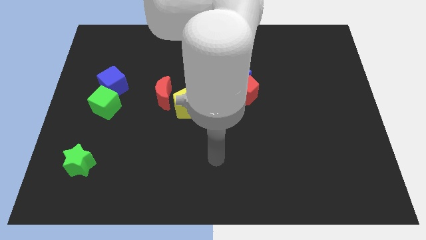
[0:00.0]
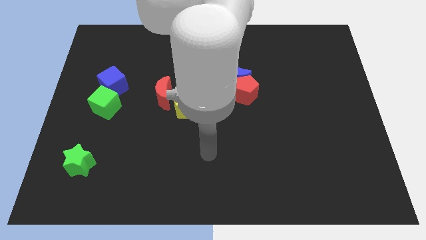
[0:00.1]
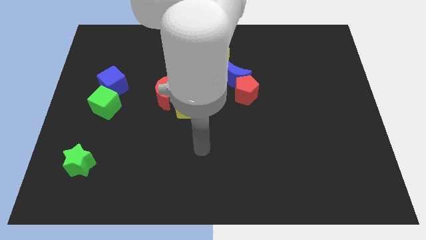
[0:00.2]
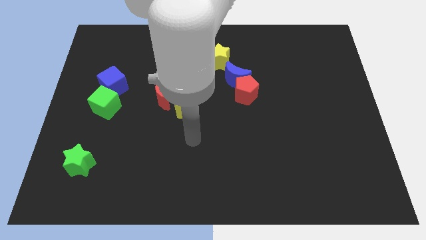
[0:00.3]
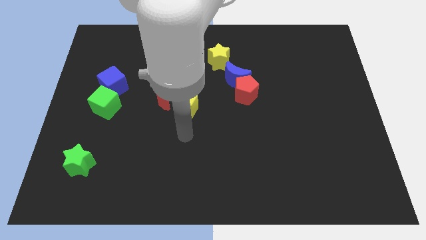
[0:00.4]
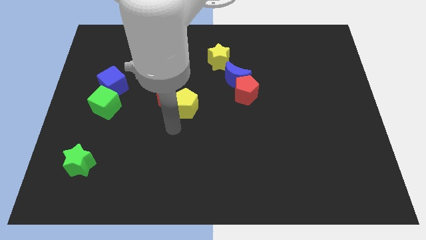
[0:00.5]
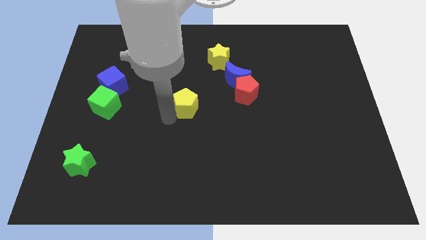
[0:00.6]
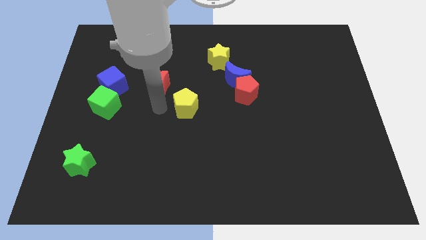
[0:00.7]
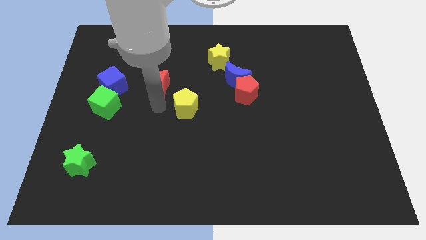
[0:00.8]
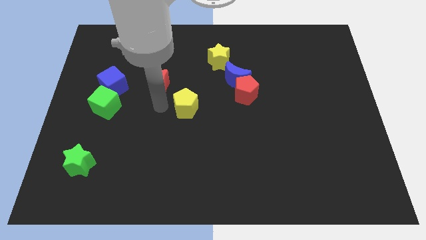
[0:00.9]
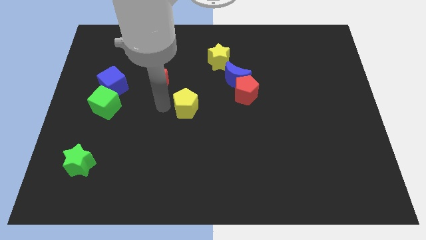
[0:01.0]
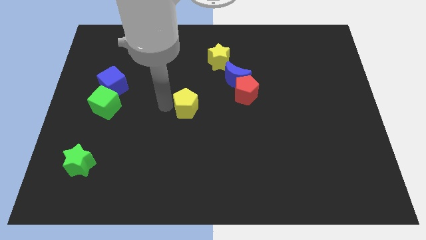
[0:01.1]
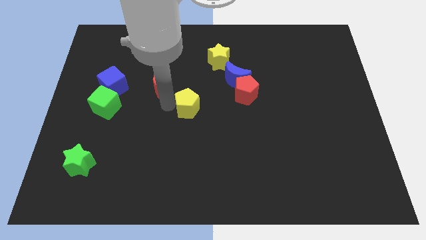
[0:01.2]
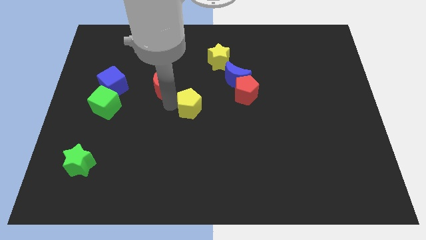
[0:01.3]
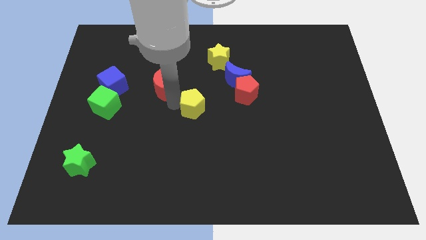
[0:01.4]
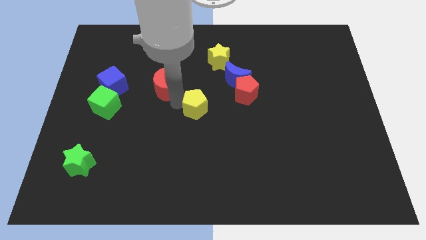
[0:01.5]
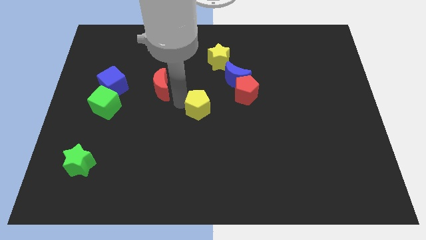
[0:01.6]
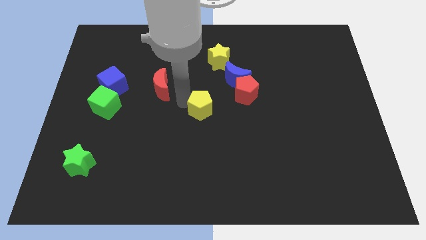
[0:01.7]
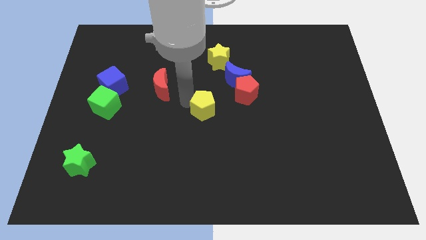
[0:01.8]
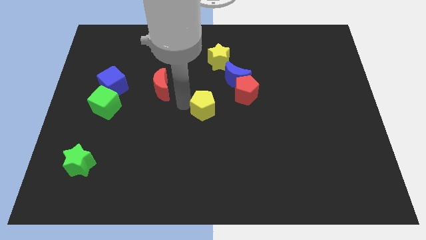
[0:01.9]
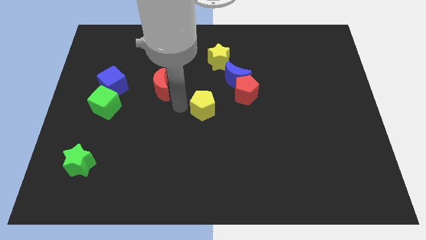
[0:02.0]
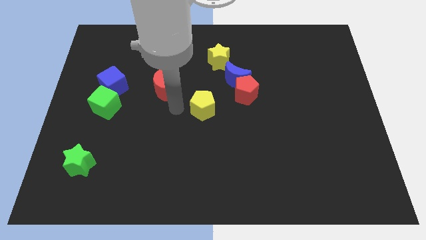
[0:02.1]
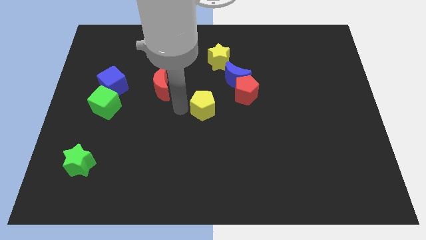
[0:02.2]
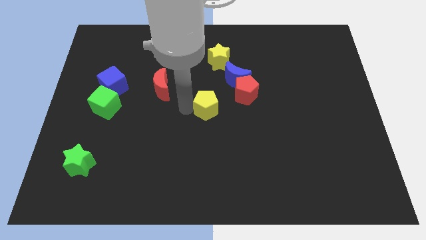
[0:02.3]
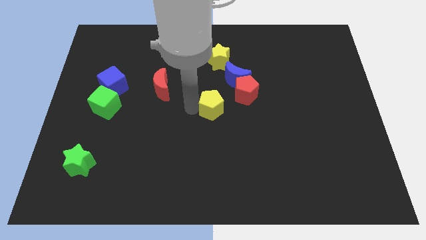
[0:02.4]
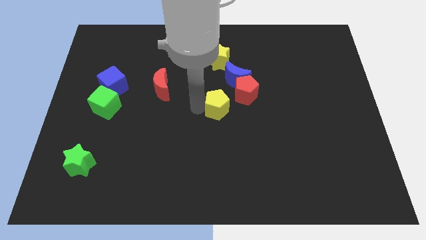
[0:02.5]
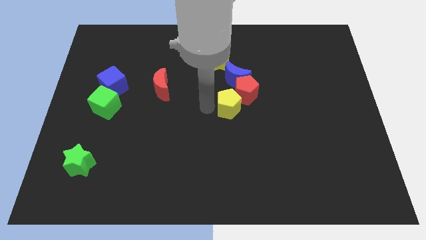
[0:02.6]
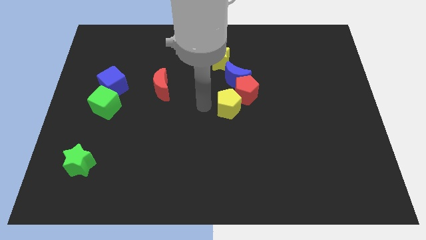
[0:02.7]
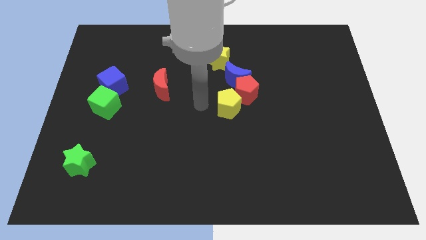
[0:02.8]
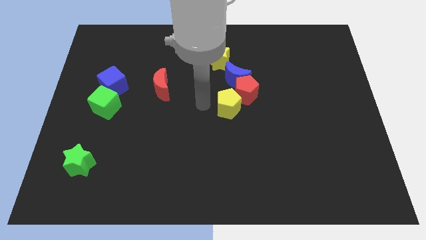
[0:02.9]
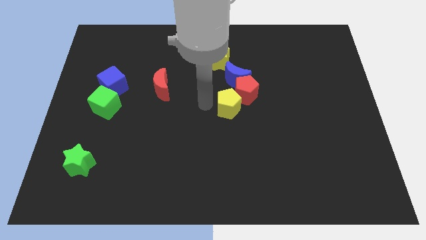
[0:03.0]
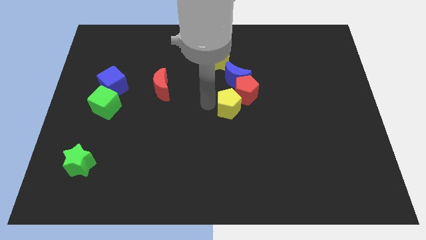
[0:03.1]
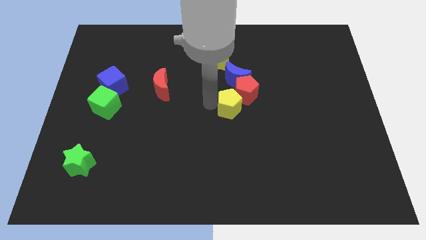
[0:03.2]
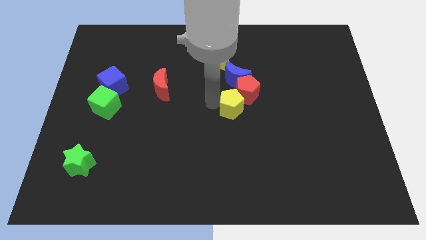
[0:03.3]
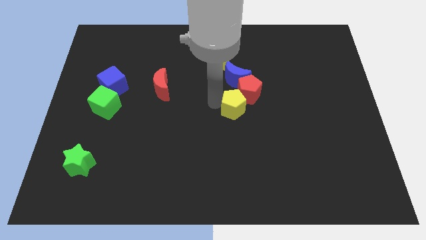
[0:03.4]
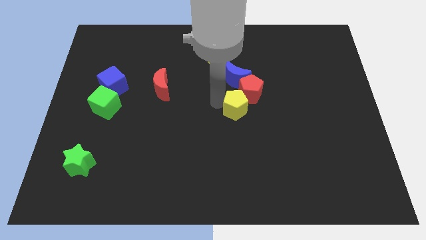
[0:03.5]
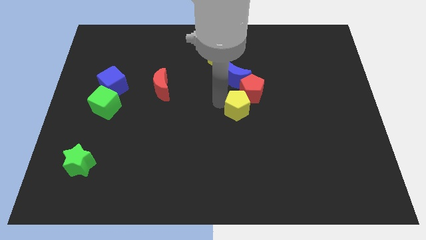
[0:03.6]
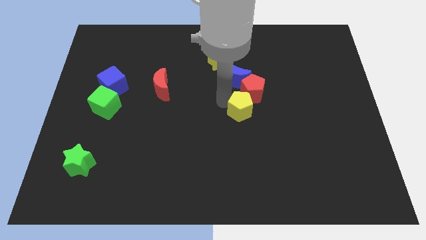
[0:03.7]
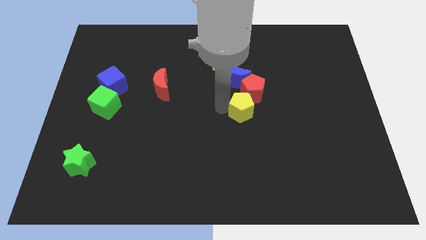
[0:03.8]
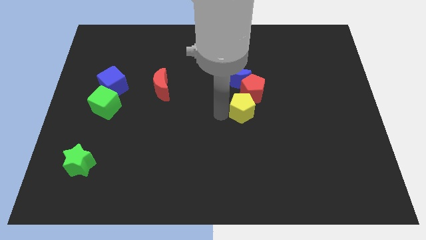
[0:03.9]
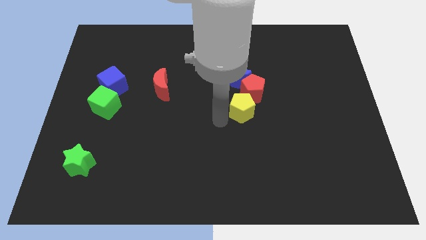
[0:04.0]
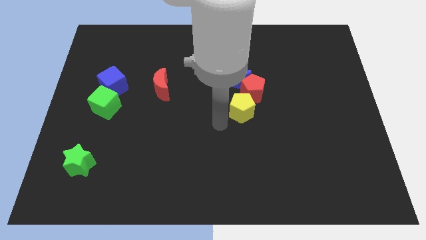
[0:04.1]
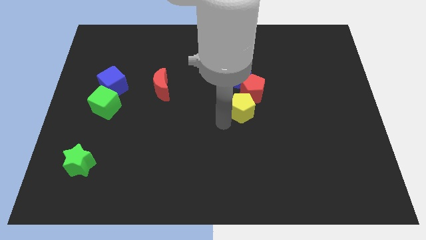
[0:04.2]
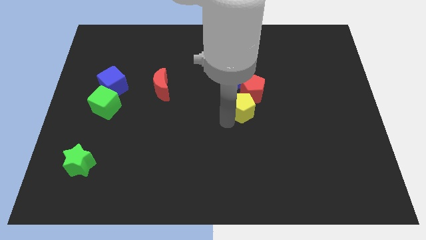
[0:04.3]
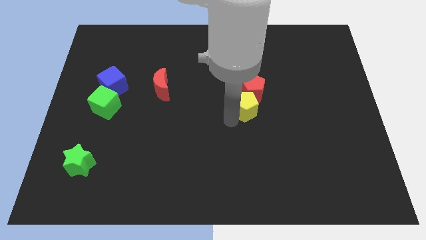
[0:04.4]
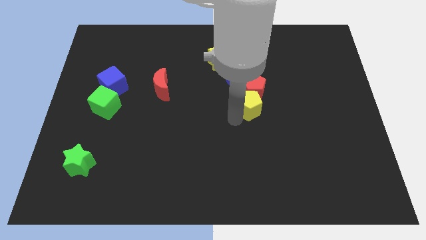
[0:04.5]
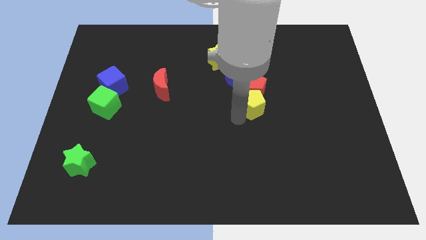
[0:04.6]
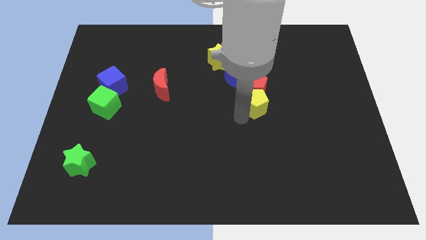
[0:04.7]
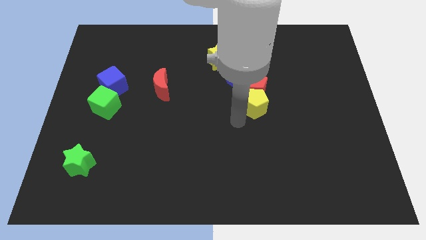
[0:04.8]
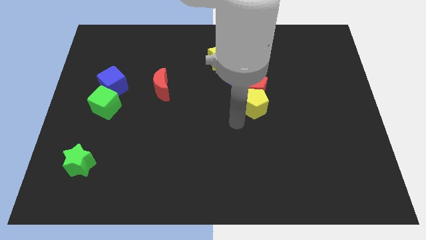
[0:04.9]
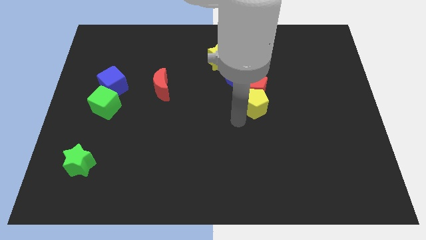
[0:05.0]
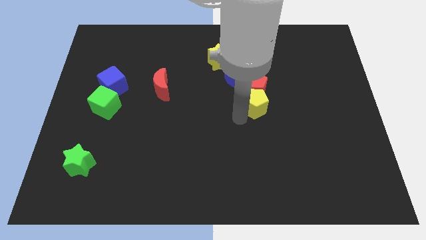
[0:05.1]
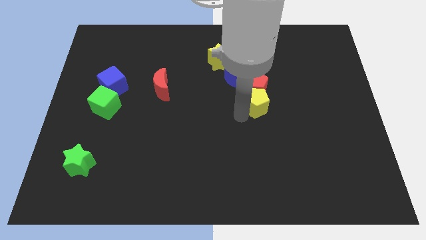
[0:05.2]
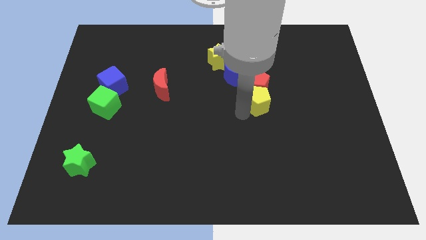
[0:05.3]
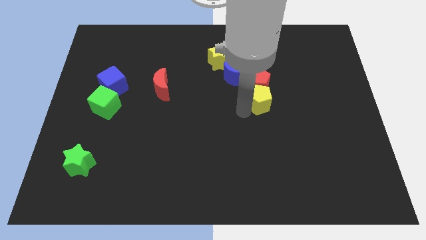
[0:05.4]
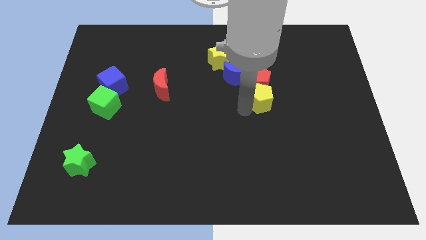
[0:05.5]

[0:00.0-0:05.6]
push the yellow pentagon up and then right a little

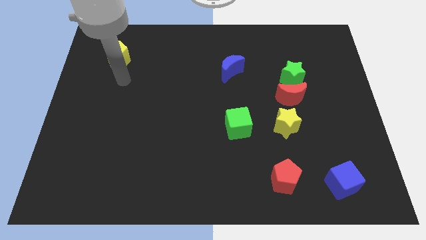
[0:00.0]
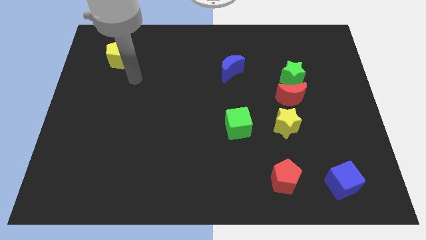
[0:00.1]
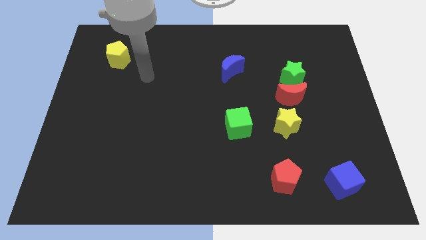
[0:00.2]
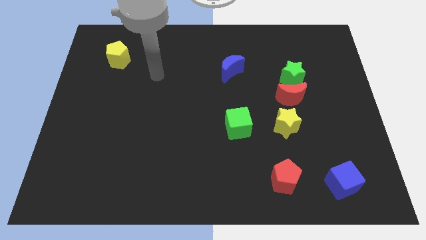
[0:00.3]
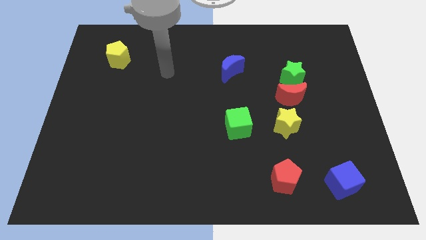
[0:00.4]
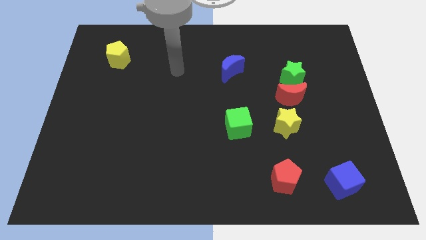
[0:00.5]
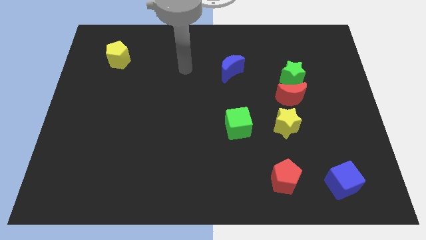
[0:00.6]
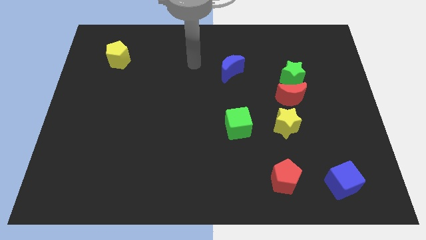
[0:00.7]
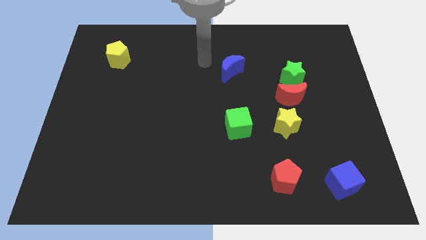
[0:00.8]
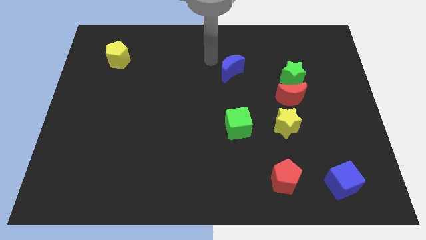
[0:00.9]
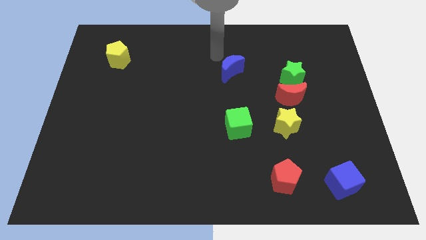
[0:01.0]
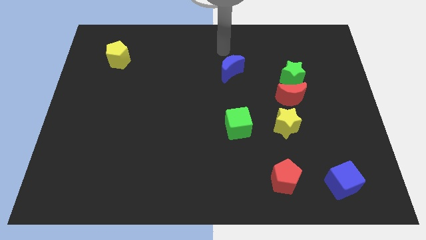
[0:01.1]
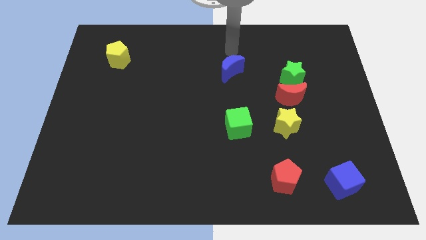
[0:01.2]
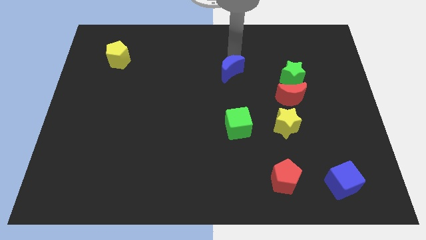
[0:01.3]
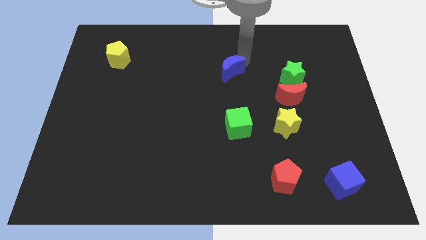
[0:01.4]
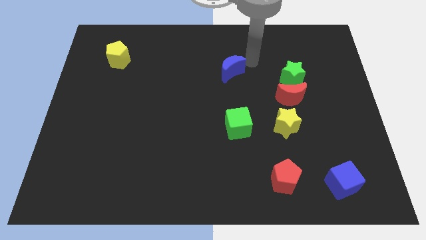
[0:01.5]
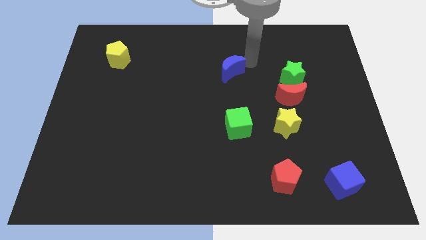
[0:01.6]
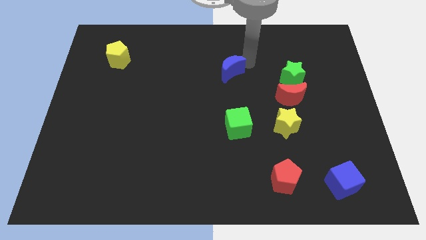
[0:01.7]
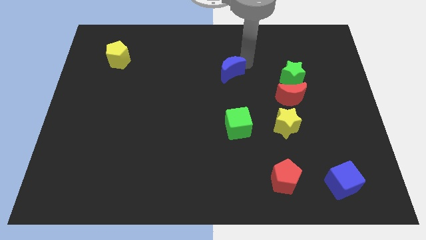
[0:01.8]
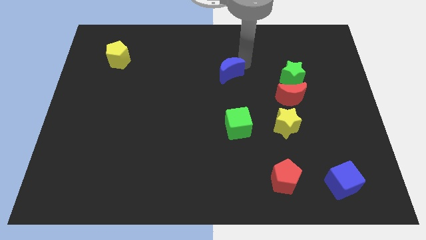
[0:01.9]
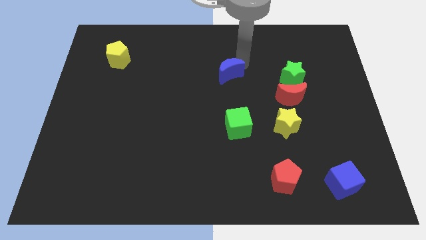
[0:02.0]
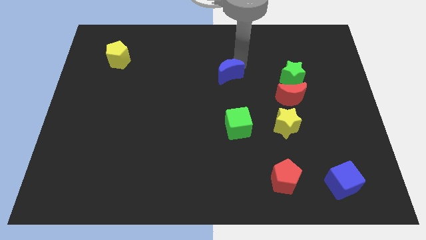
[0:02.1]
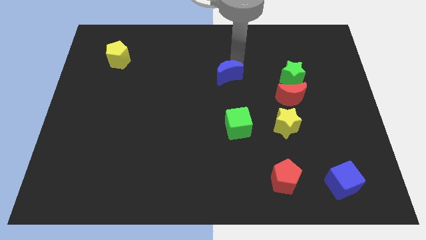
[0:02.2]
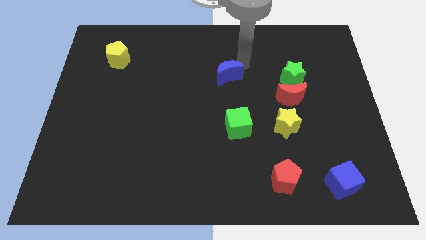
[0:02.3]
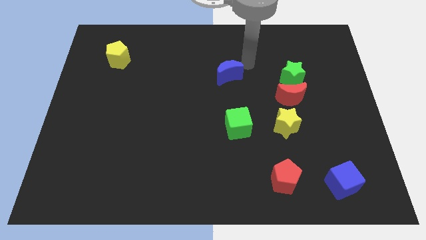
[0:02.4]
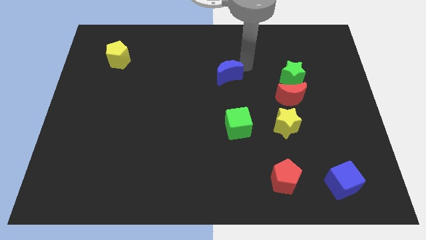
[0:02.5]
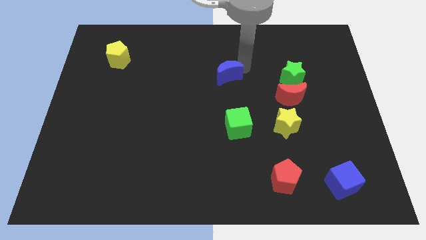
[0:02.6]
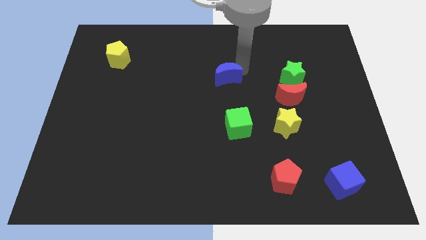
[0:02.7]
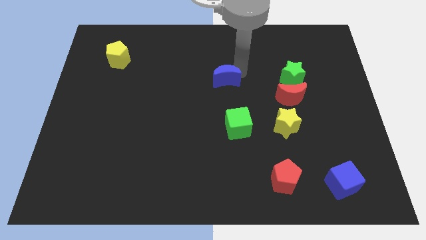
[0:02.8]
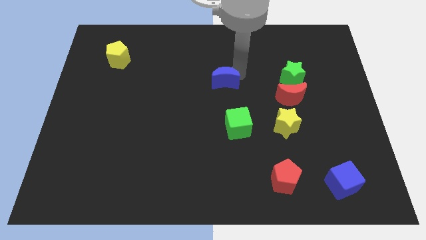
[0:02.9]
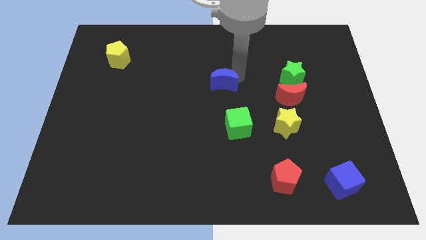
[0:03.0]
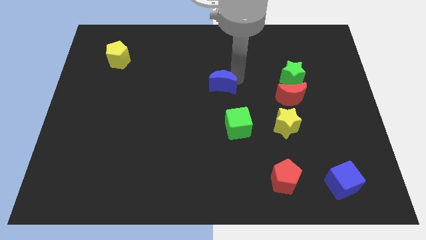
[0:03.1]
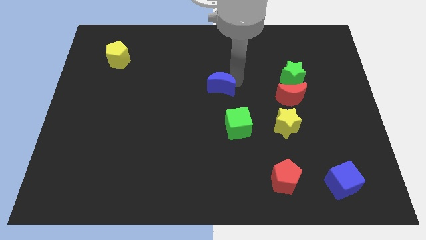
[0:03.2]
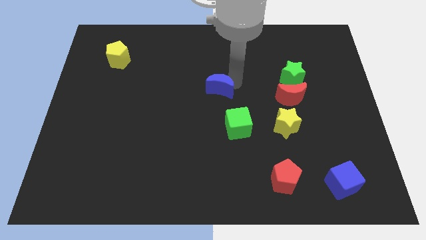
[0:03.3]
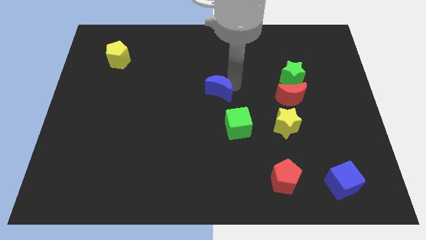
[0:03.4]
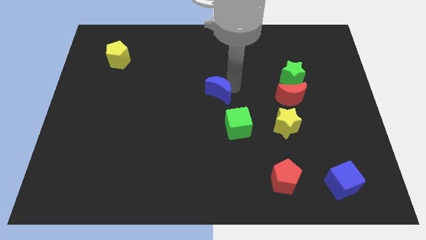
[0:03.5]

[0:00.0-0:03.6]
slide the blue moon slightly down and to the left
